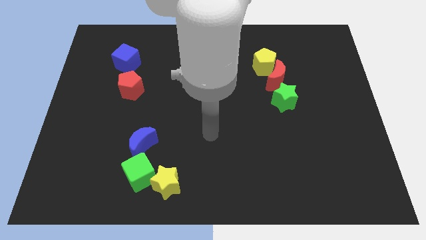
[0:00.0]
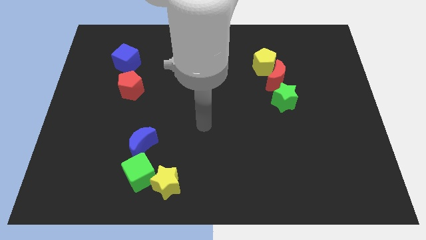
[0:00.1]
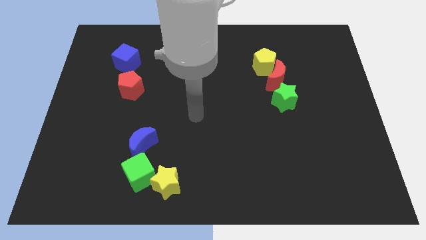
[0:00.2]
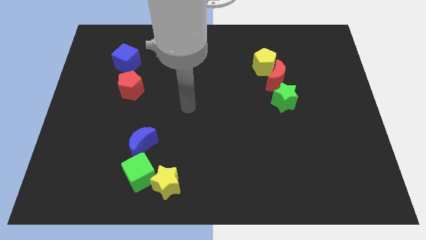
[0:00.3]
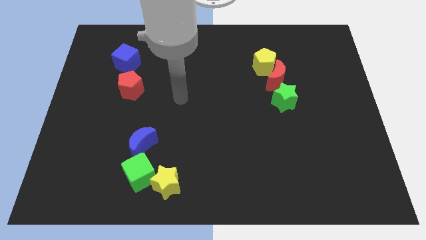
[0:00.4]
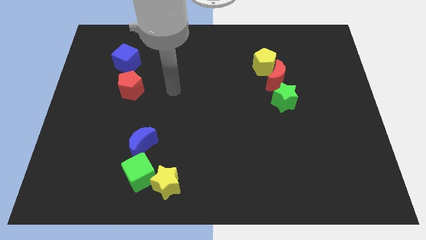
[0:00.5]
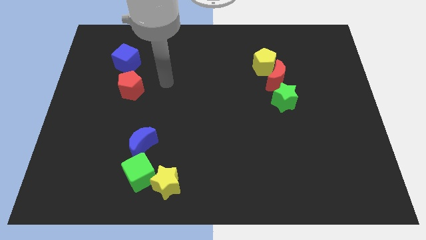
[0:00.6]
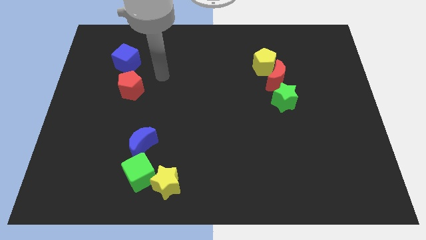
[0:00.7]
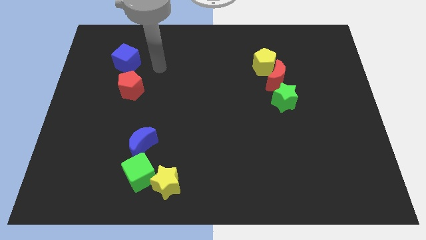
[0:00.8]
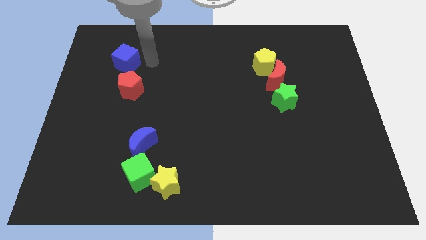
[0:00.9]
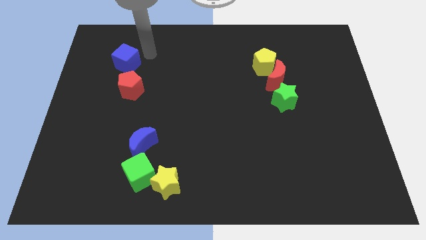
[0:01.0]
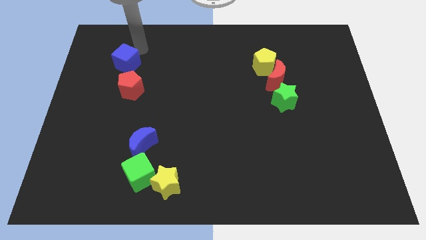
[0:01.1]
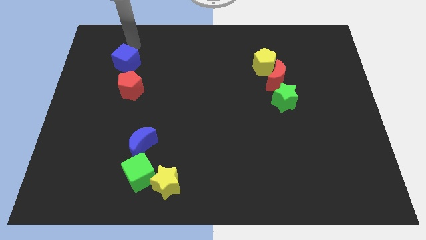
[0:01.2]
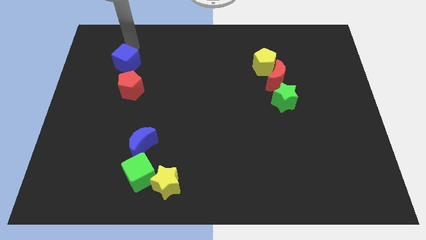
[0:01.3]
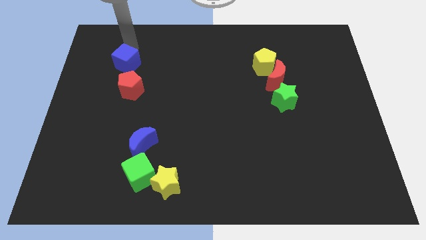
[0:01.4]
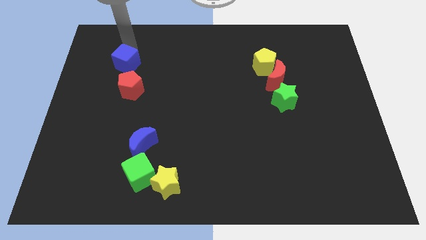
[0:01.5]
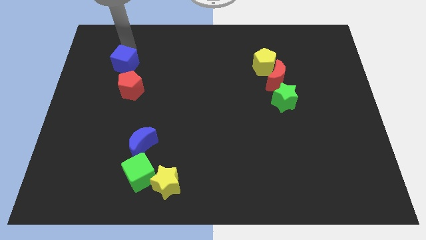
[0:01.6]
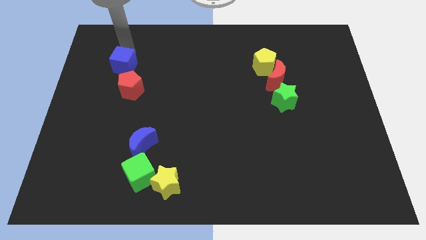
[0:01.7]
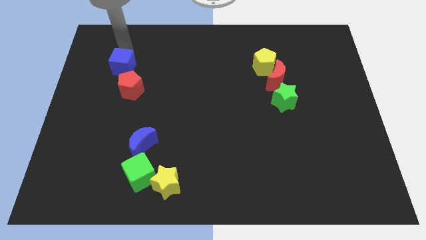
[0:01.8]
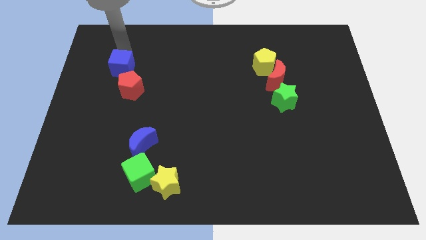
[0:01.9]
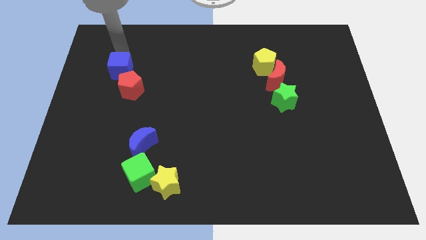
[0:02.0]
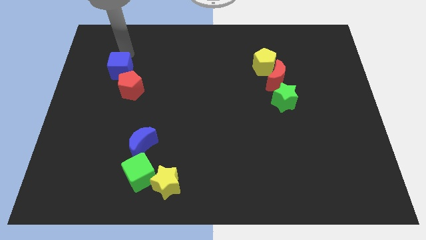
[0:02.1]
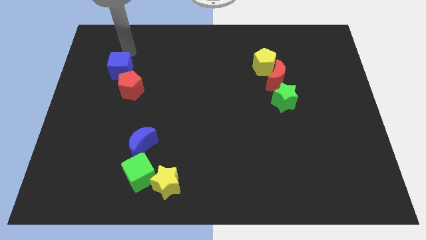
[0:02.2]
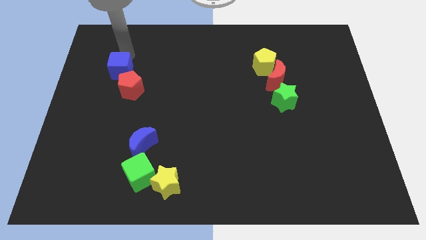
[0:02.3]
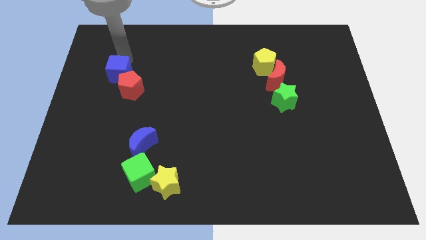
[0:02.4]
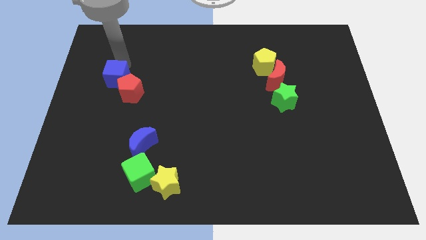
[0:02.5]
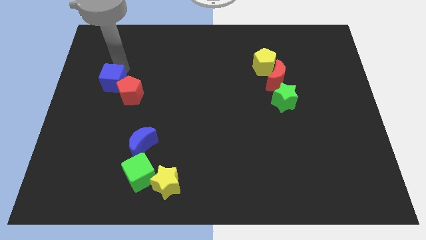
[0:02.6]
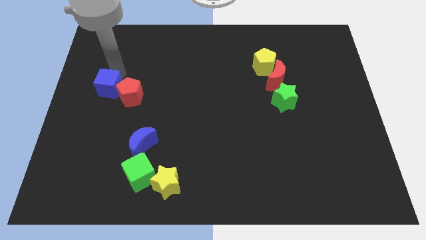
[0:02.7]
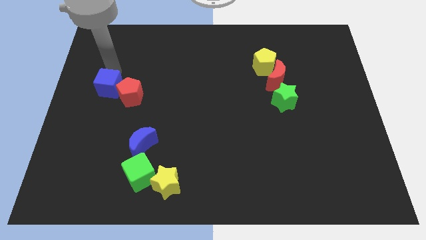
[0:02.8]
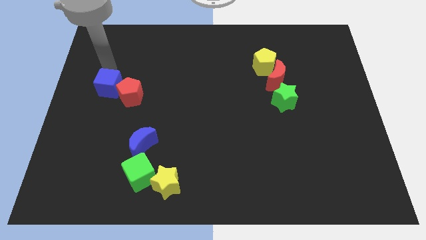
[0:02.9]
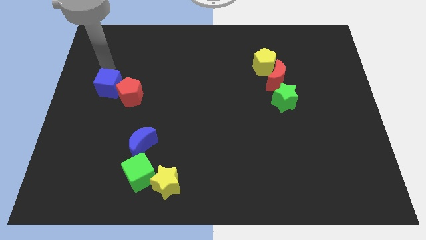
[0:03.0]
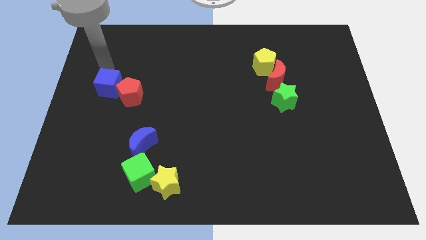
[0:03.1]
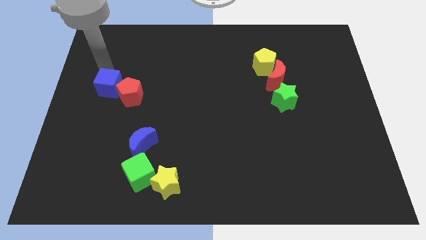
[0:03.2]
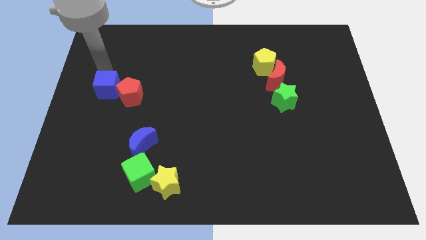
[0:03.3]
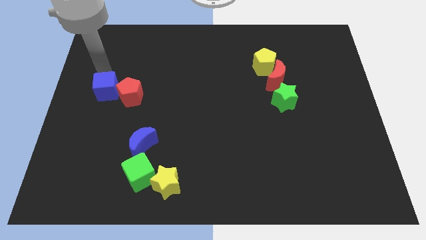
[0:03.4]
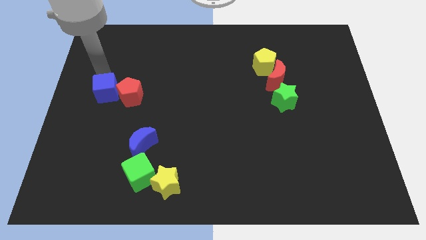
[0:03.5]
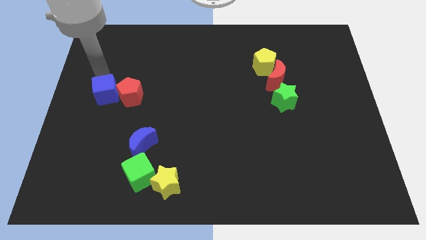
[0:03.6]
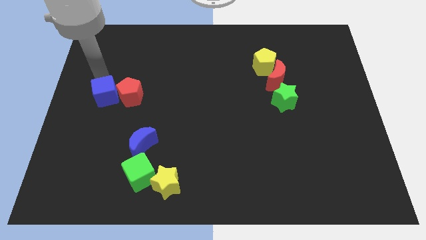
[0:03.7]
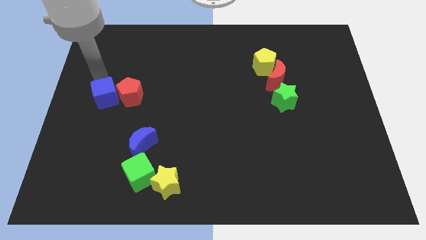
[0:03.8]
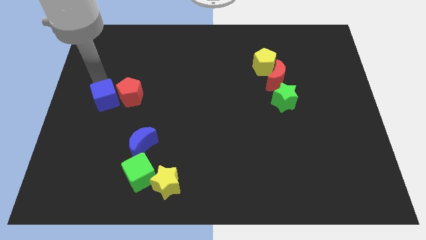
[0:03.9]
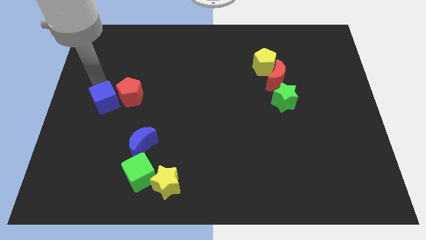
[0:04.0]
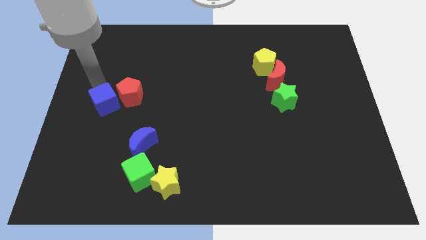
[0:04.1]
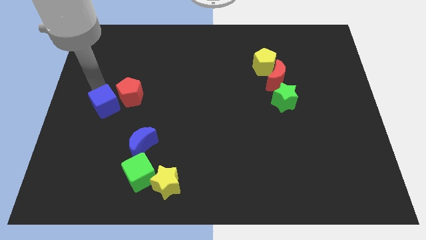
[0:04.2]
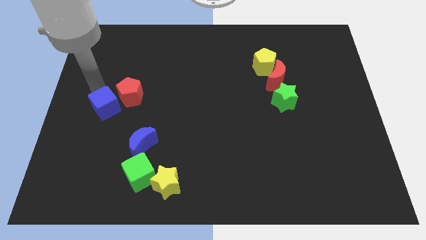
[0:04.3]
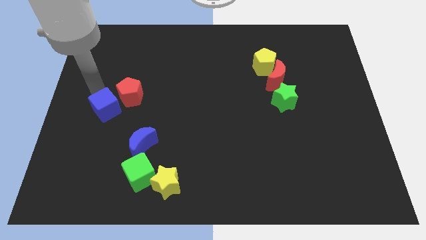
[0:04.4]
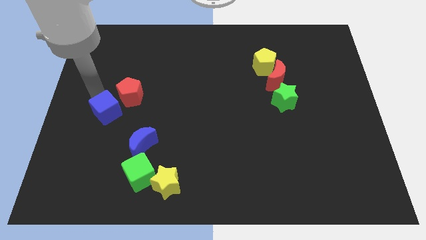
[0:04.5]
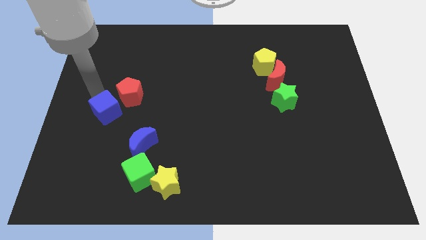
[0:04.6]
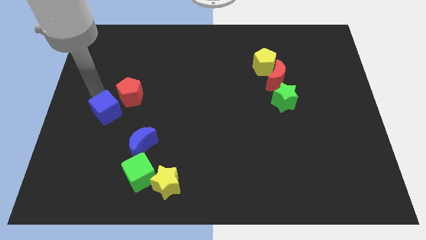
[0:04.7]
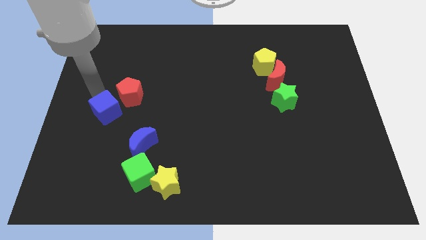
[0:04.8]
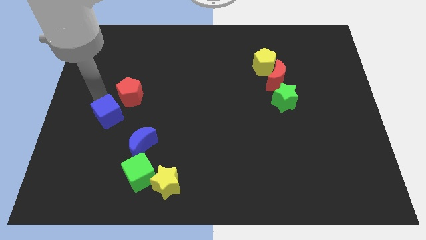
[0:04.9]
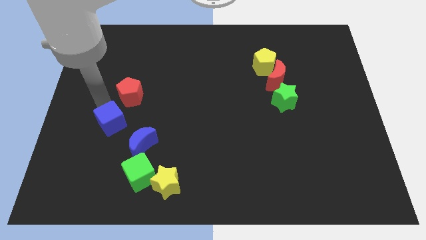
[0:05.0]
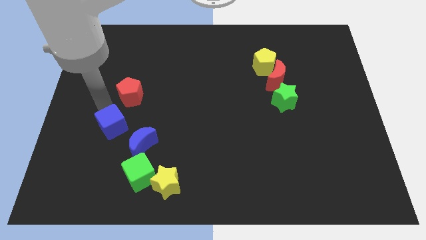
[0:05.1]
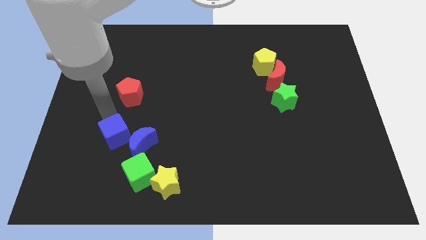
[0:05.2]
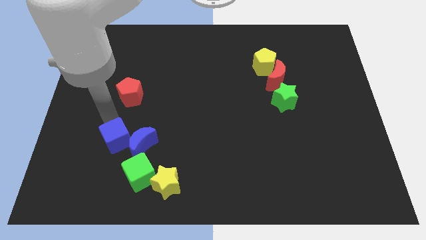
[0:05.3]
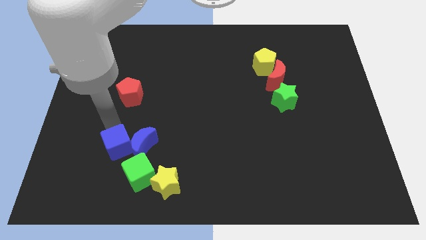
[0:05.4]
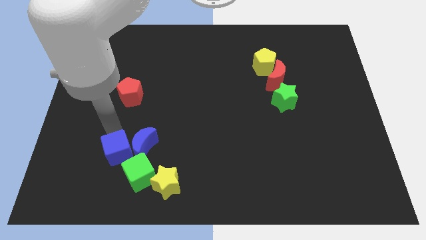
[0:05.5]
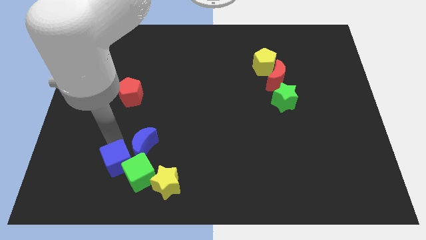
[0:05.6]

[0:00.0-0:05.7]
put the blue cube towards the green cube

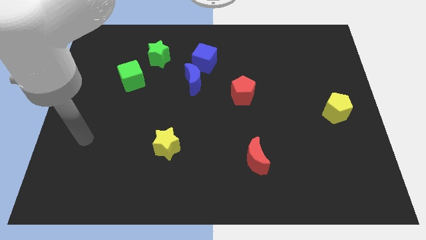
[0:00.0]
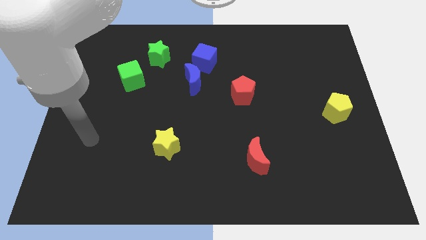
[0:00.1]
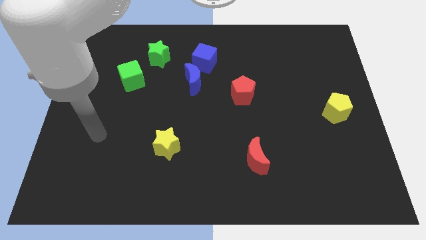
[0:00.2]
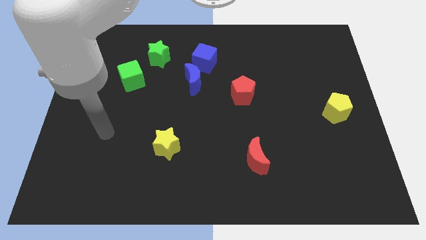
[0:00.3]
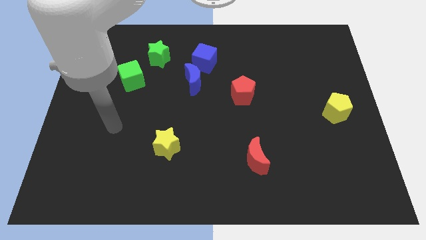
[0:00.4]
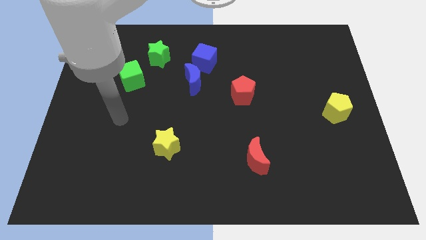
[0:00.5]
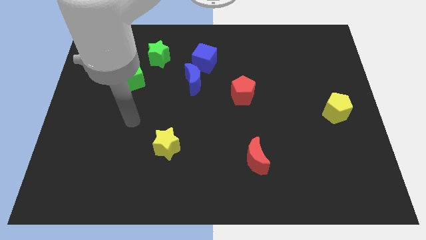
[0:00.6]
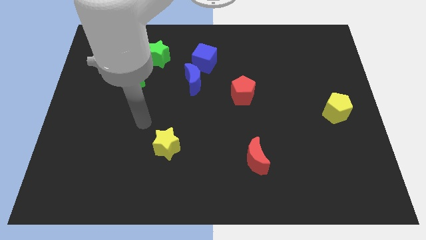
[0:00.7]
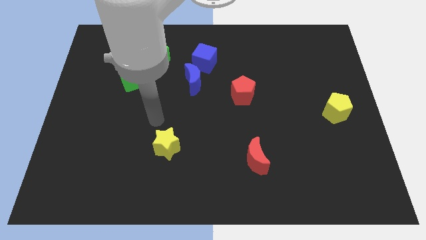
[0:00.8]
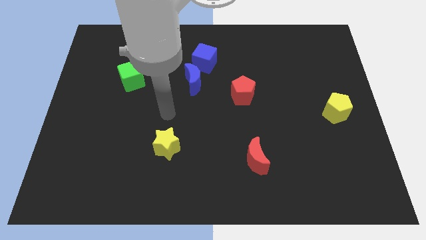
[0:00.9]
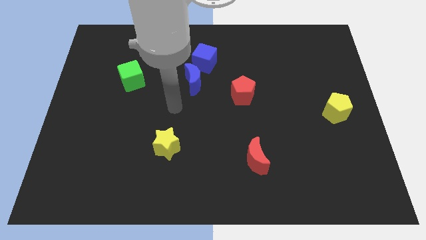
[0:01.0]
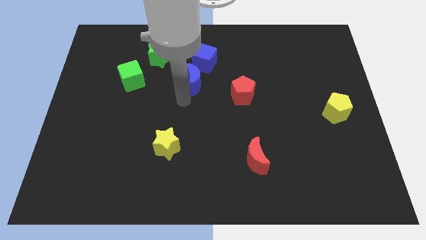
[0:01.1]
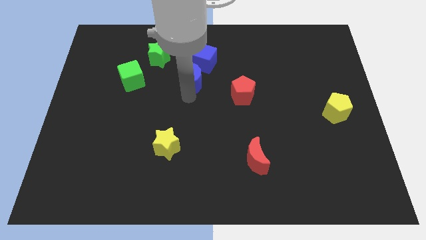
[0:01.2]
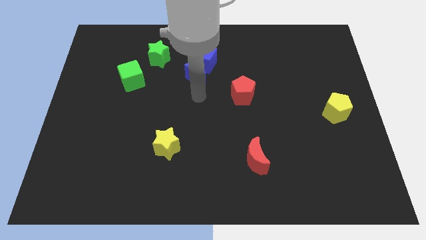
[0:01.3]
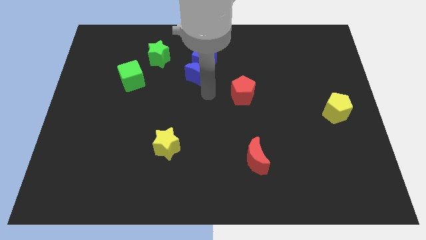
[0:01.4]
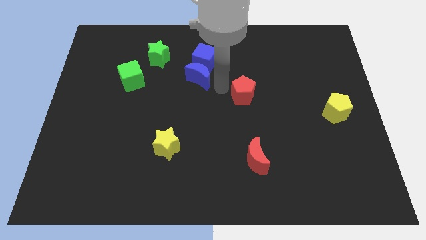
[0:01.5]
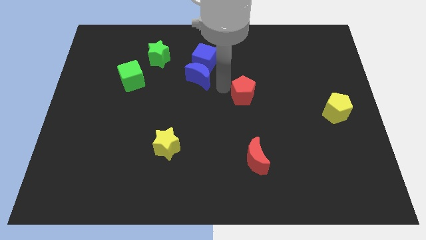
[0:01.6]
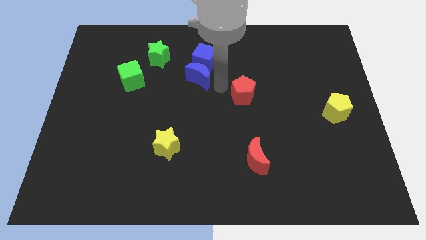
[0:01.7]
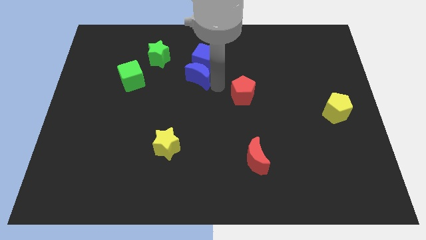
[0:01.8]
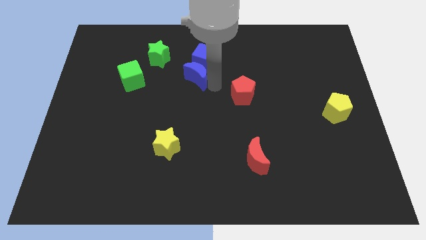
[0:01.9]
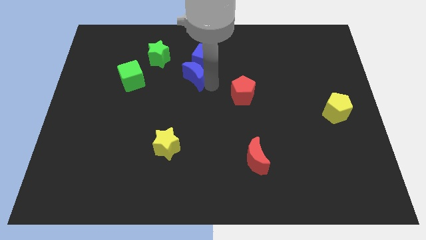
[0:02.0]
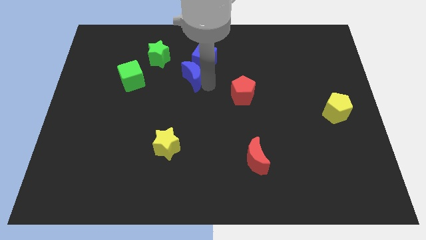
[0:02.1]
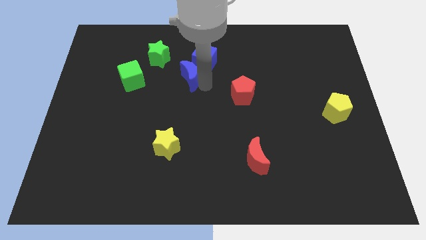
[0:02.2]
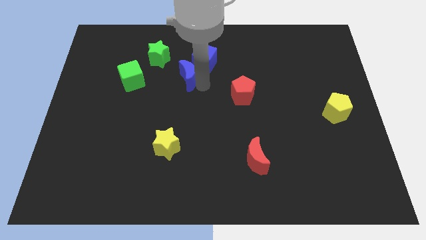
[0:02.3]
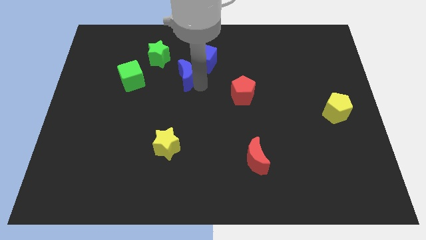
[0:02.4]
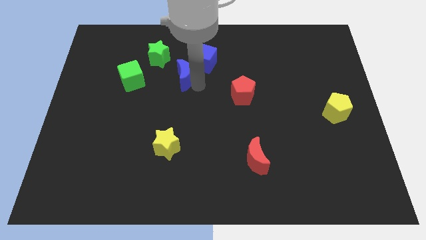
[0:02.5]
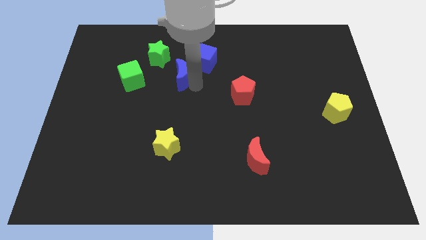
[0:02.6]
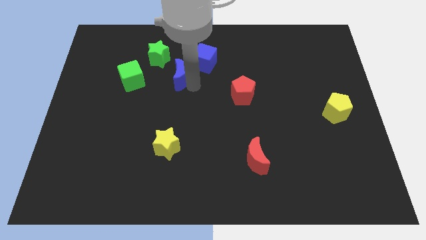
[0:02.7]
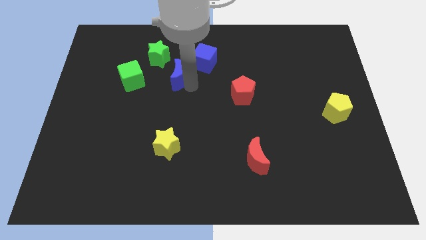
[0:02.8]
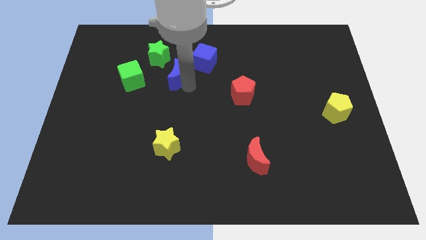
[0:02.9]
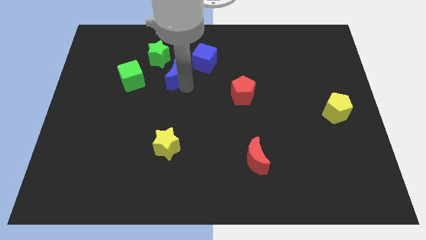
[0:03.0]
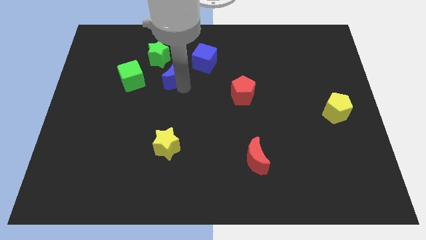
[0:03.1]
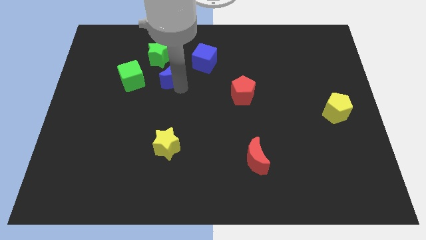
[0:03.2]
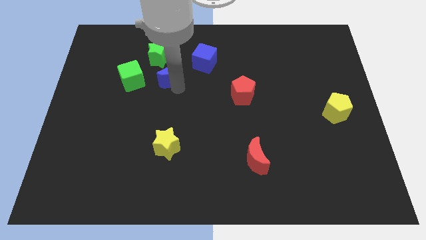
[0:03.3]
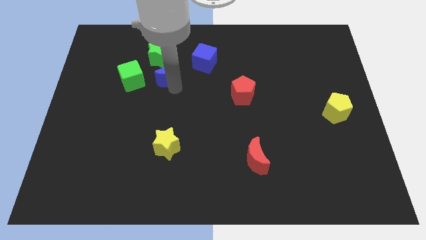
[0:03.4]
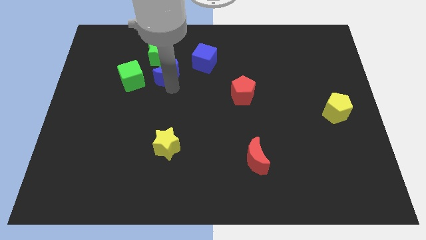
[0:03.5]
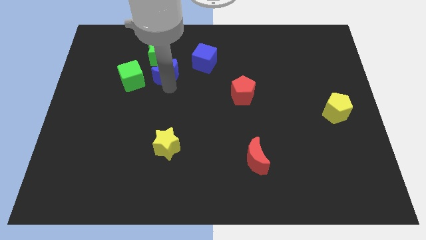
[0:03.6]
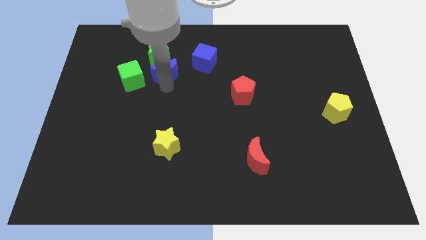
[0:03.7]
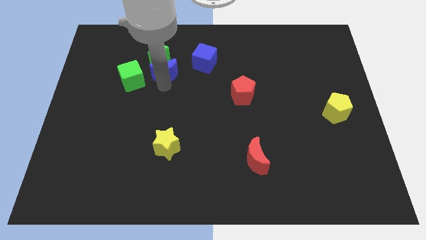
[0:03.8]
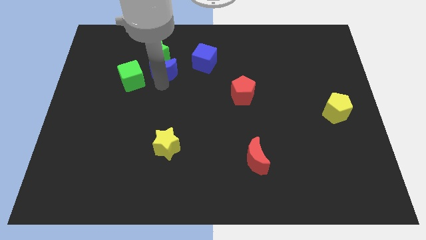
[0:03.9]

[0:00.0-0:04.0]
move the blue moon close to the green star
